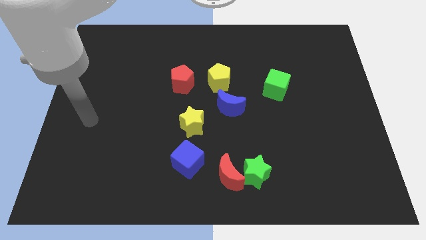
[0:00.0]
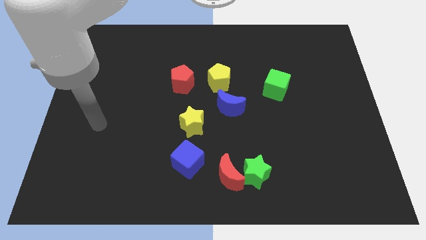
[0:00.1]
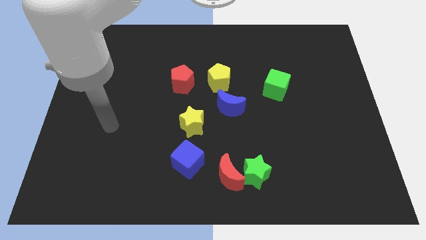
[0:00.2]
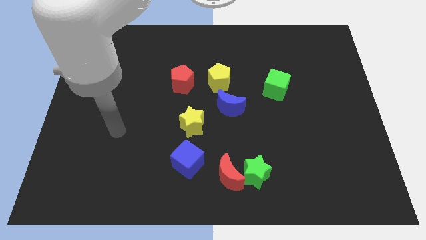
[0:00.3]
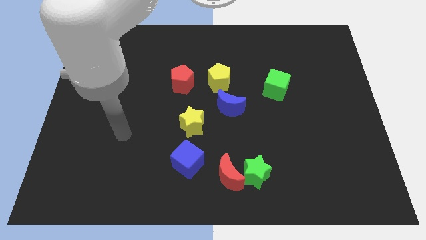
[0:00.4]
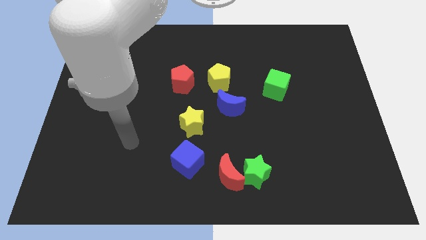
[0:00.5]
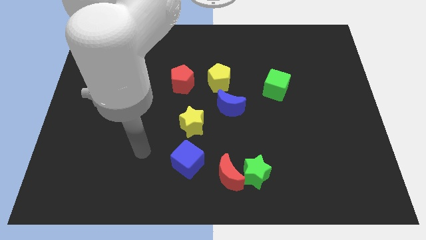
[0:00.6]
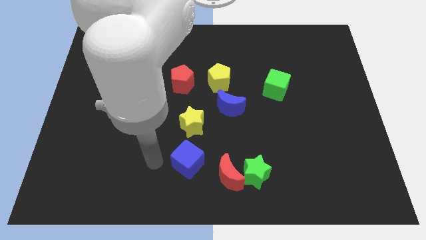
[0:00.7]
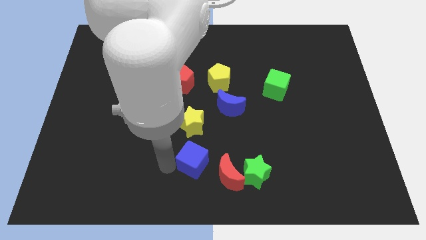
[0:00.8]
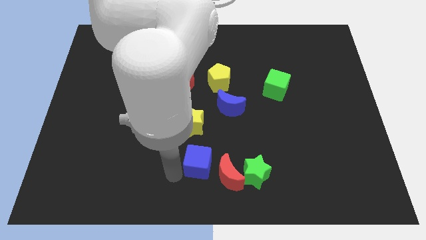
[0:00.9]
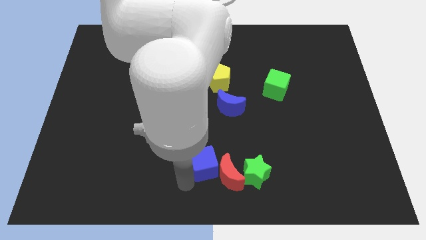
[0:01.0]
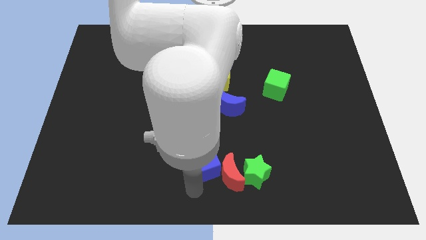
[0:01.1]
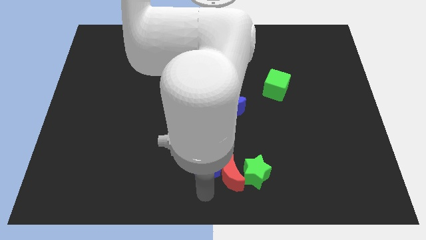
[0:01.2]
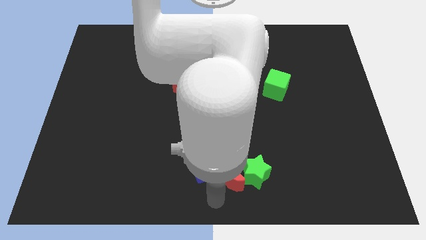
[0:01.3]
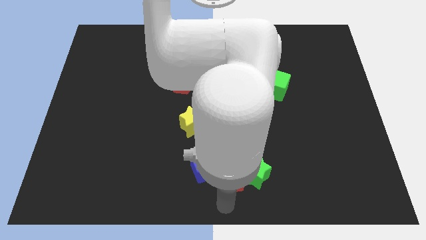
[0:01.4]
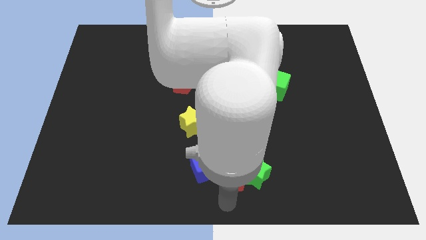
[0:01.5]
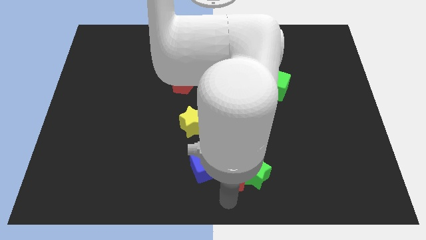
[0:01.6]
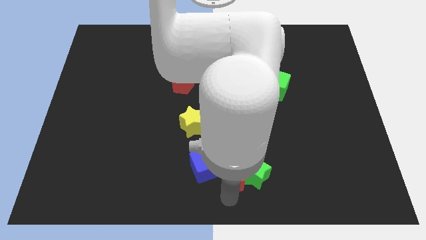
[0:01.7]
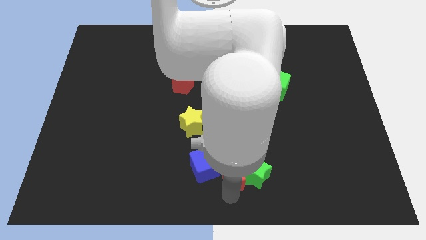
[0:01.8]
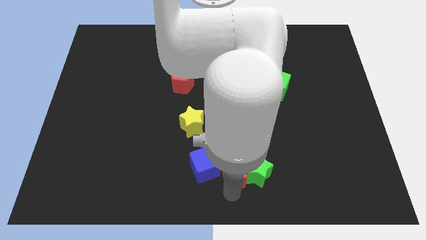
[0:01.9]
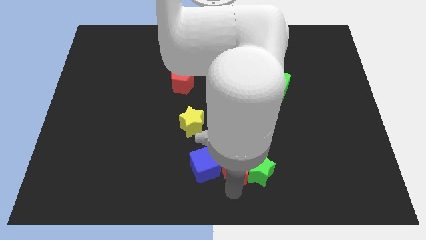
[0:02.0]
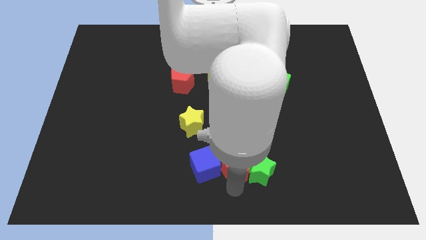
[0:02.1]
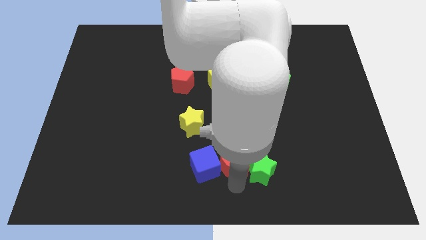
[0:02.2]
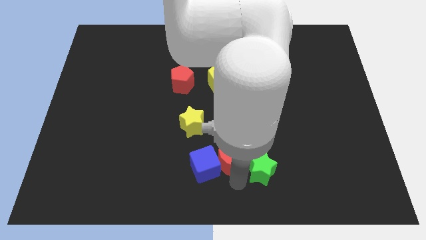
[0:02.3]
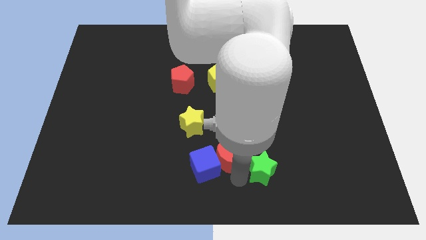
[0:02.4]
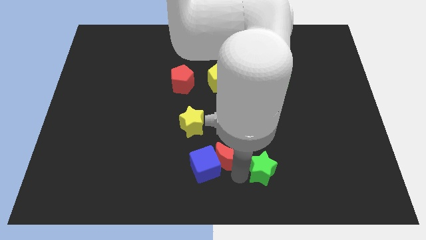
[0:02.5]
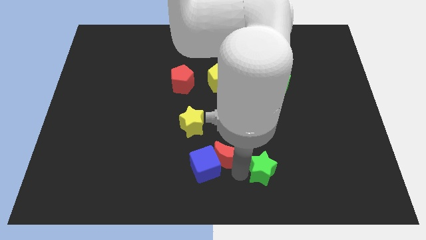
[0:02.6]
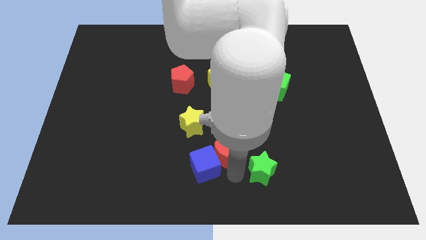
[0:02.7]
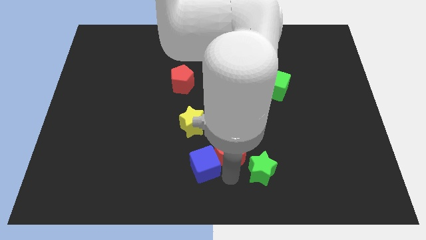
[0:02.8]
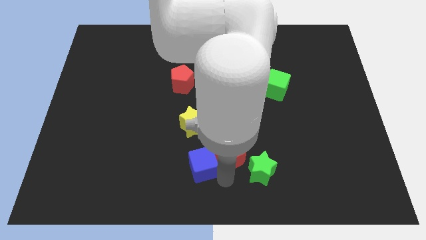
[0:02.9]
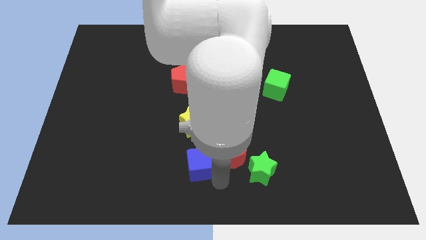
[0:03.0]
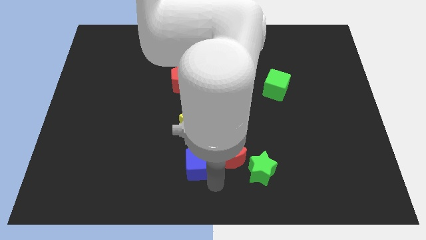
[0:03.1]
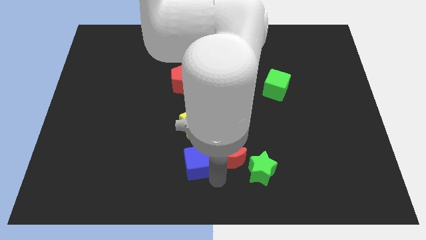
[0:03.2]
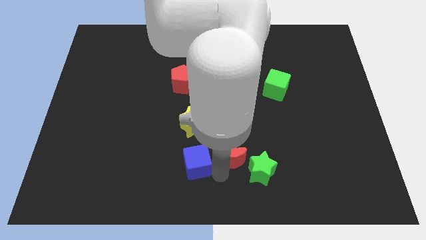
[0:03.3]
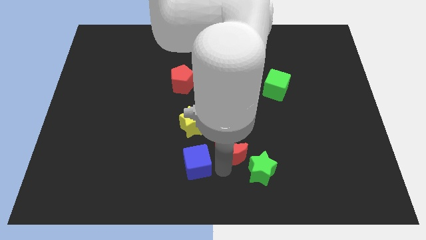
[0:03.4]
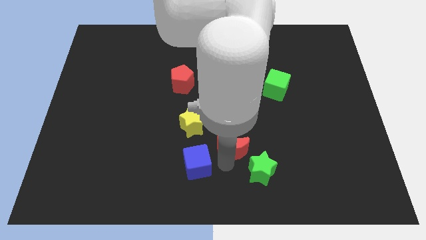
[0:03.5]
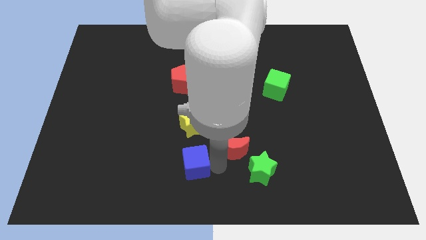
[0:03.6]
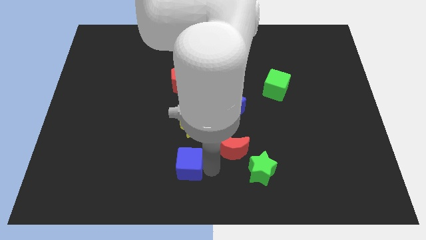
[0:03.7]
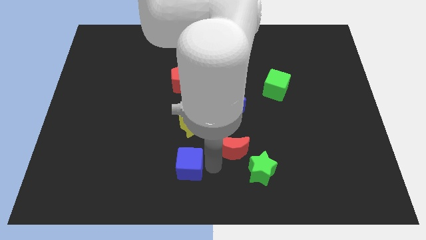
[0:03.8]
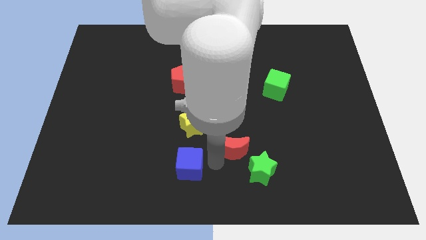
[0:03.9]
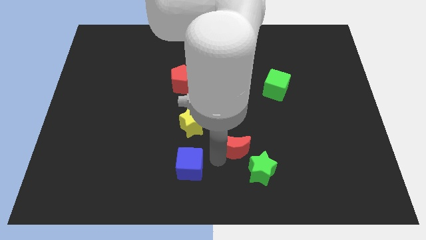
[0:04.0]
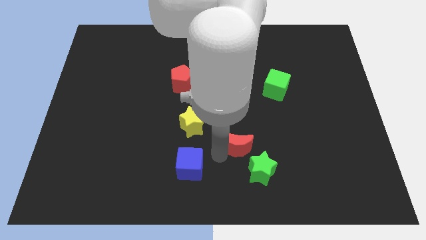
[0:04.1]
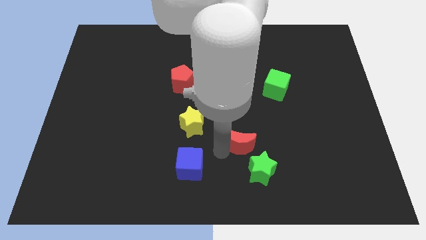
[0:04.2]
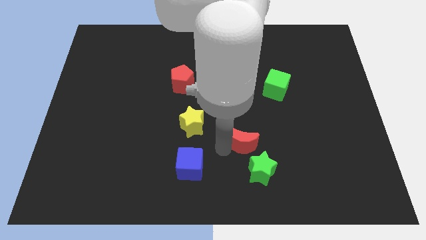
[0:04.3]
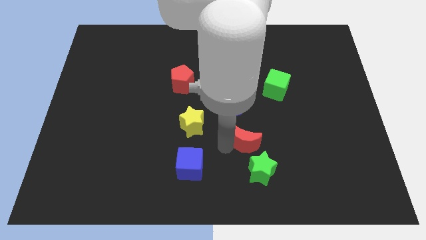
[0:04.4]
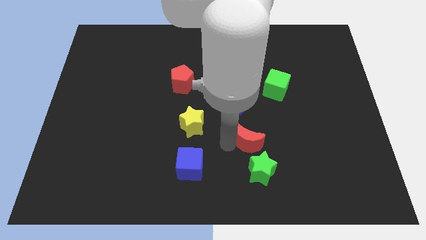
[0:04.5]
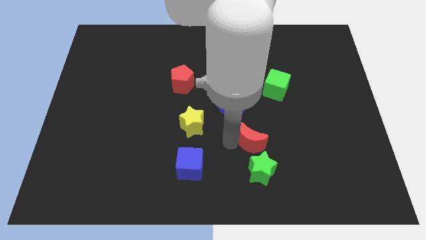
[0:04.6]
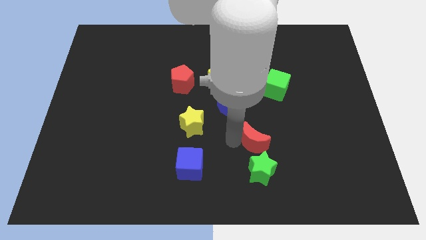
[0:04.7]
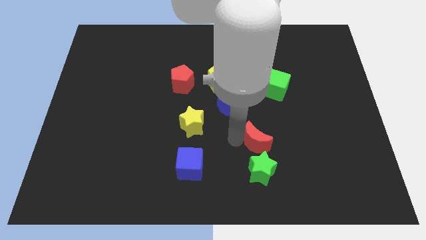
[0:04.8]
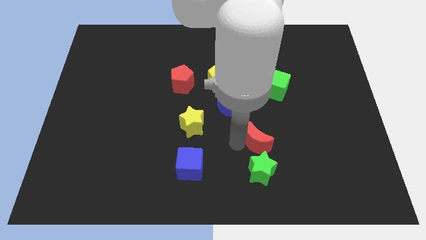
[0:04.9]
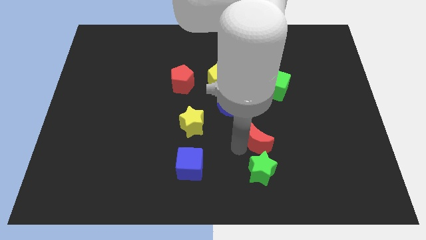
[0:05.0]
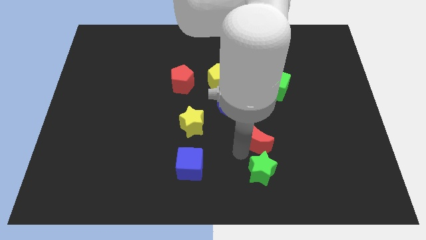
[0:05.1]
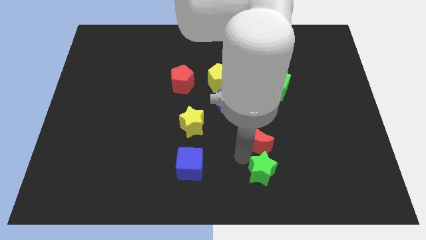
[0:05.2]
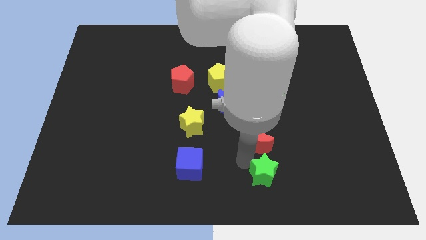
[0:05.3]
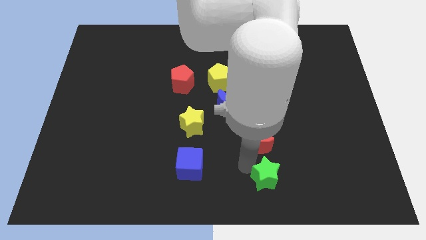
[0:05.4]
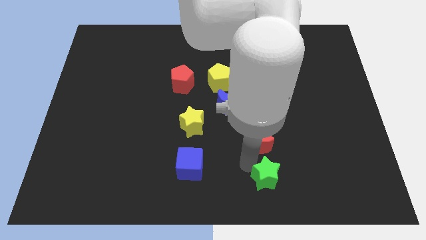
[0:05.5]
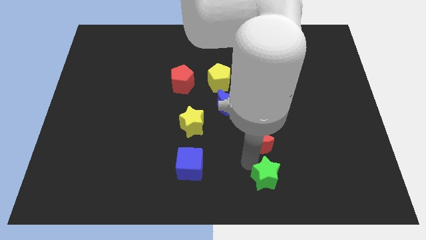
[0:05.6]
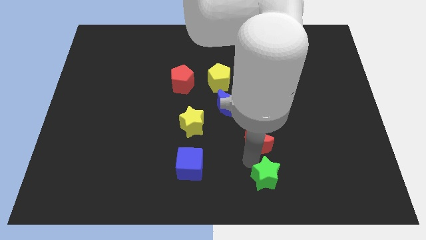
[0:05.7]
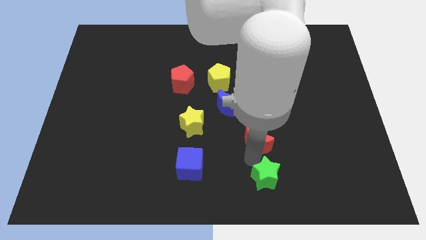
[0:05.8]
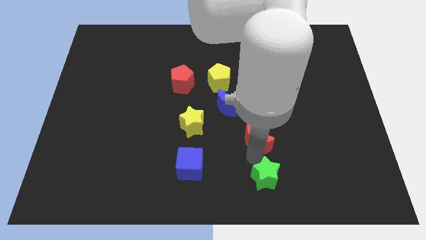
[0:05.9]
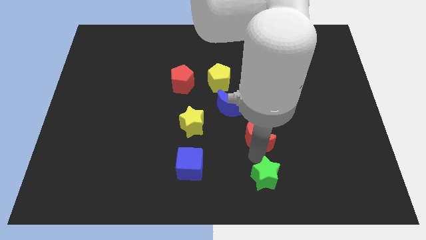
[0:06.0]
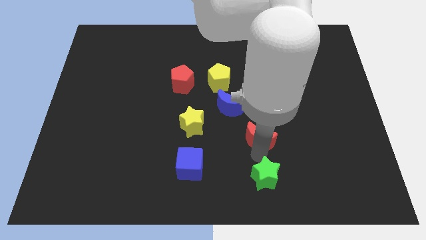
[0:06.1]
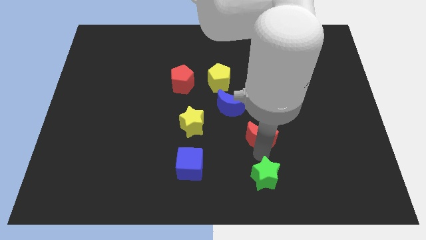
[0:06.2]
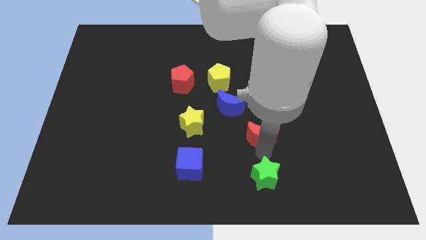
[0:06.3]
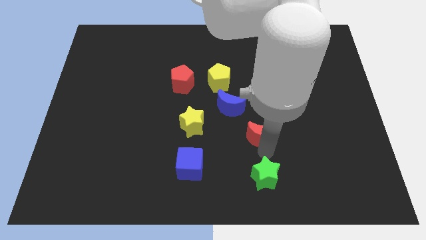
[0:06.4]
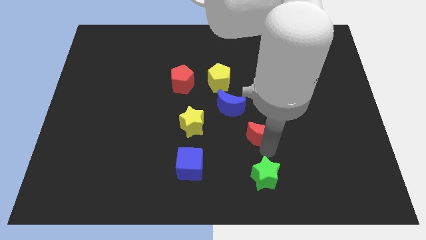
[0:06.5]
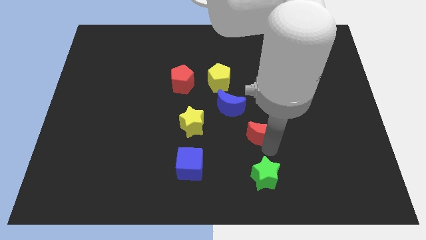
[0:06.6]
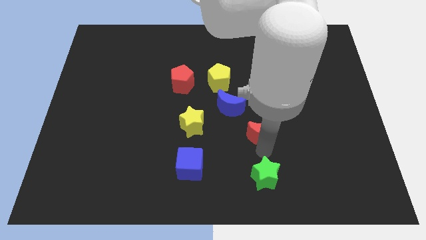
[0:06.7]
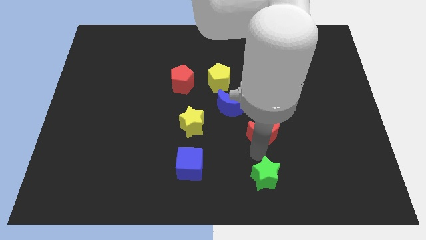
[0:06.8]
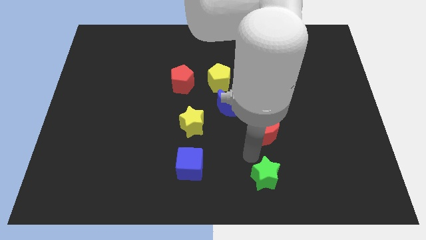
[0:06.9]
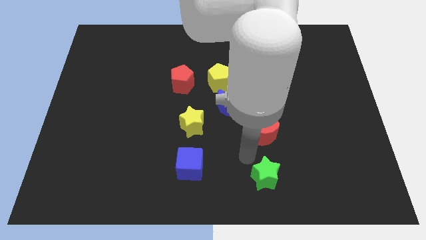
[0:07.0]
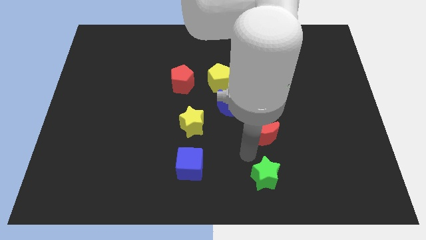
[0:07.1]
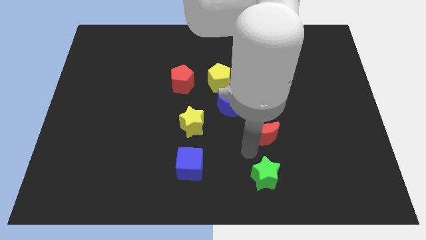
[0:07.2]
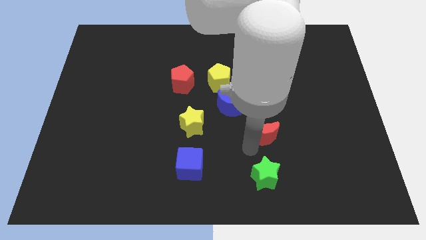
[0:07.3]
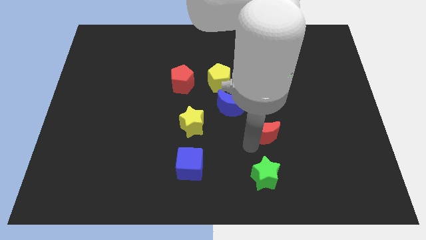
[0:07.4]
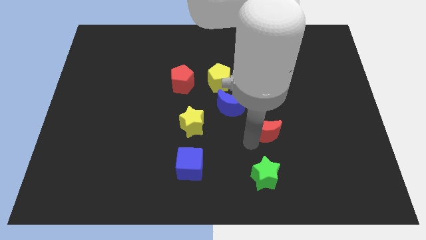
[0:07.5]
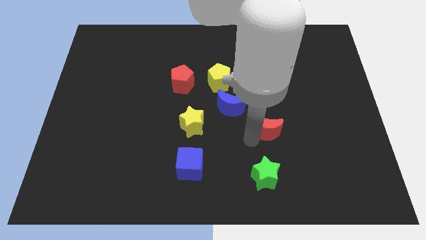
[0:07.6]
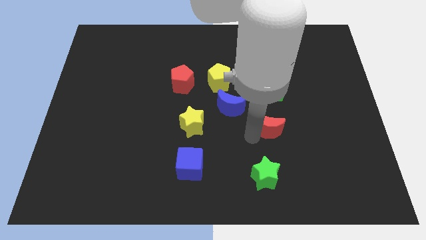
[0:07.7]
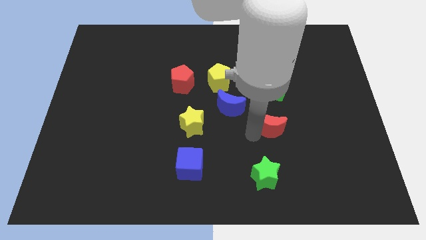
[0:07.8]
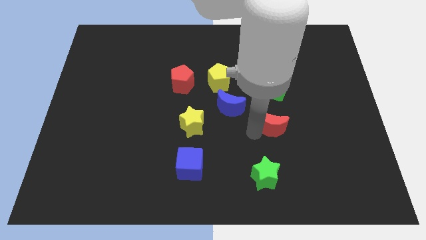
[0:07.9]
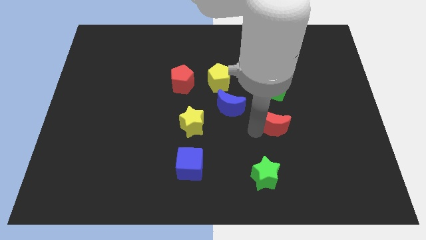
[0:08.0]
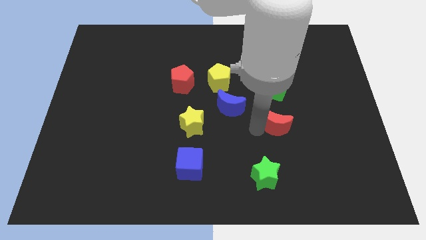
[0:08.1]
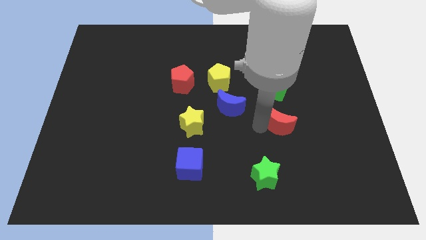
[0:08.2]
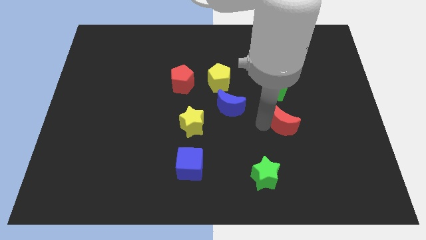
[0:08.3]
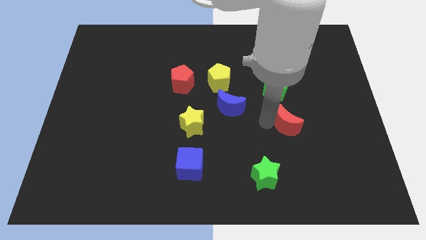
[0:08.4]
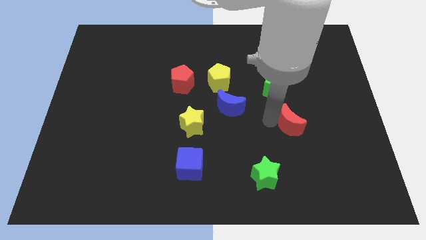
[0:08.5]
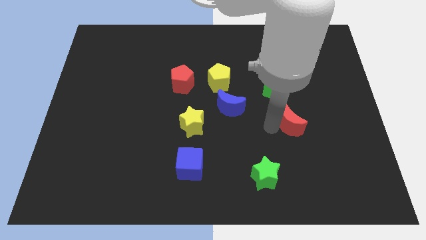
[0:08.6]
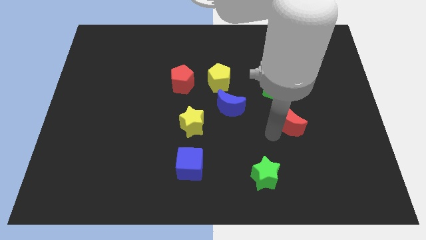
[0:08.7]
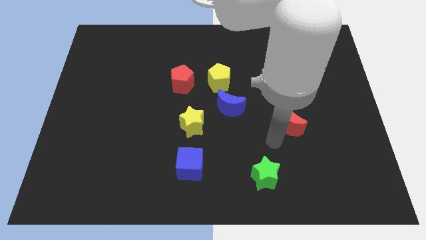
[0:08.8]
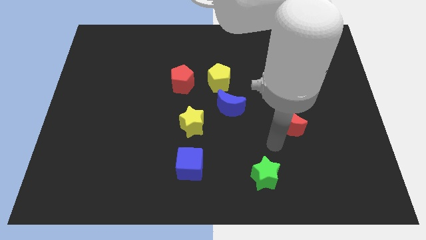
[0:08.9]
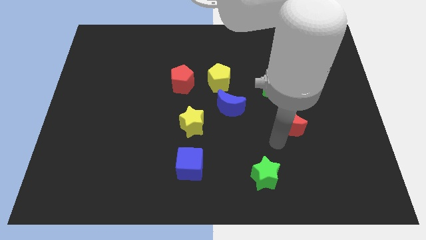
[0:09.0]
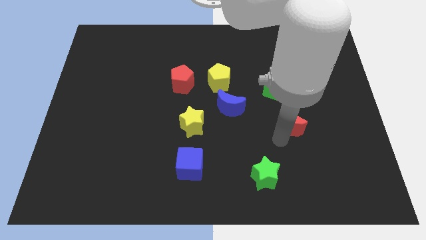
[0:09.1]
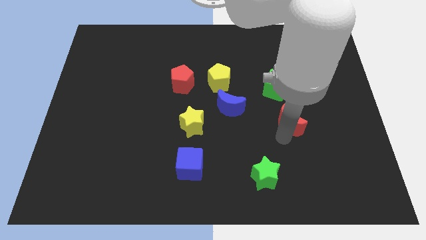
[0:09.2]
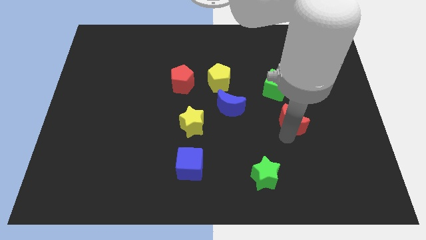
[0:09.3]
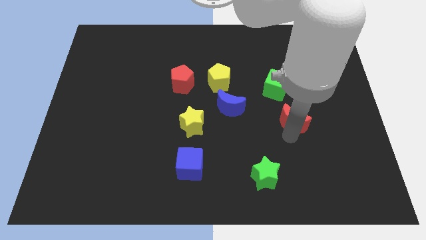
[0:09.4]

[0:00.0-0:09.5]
push the red moon up and then to the right
